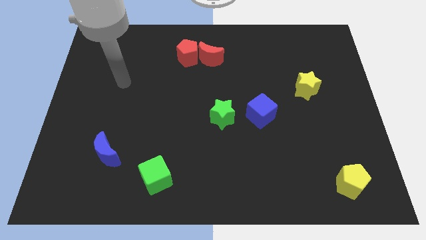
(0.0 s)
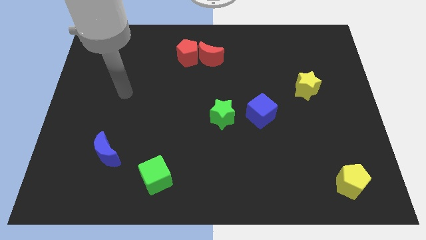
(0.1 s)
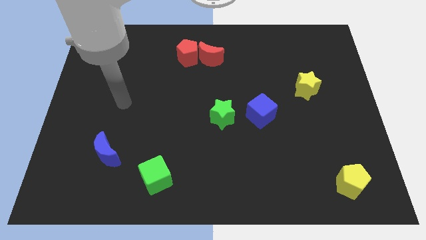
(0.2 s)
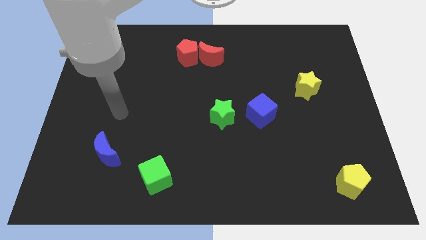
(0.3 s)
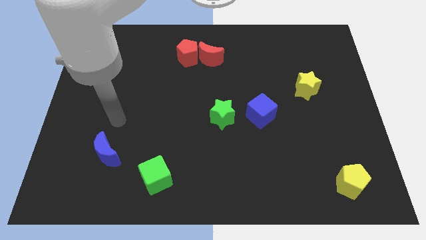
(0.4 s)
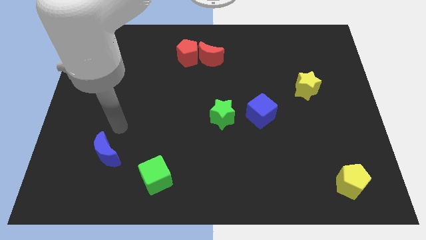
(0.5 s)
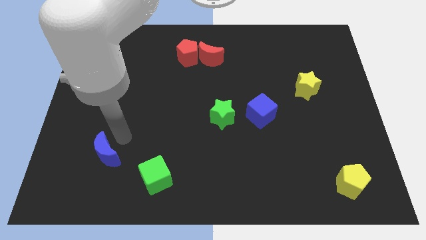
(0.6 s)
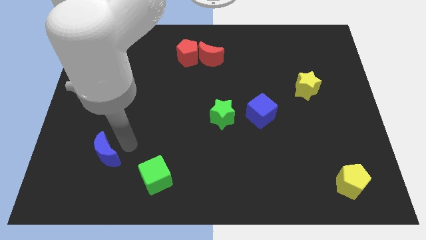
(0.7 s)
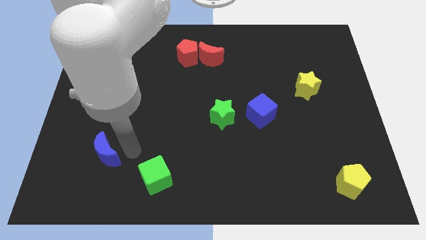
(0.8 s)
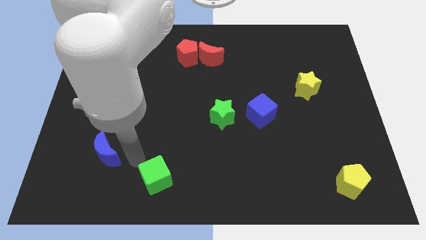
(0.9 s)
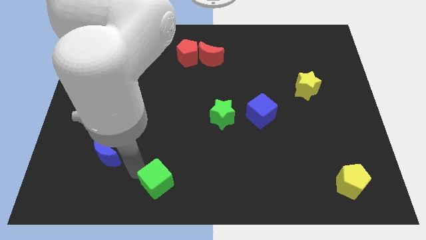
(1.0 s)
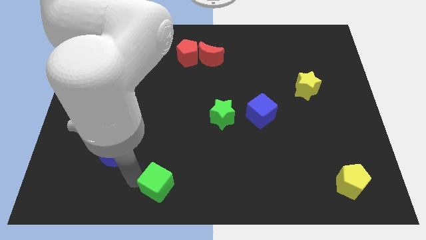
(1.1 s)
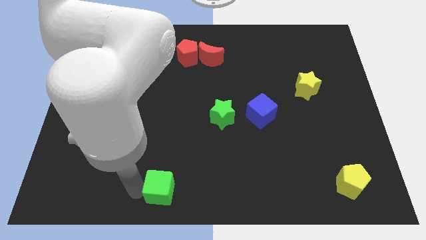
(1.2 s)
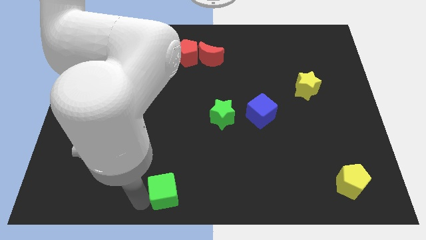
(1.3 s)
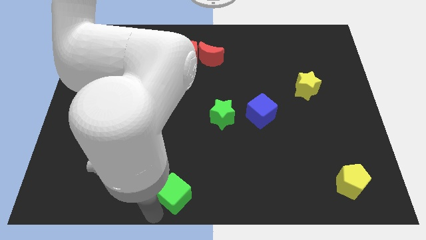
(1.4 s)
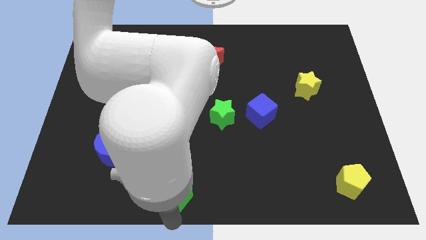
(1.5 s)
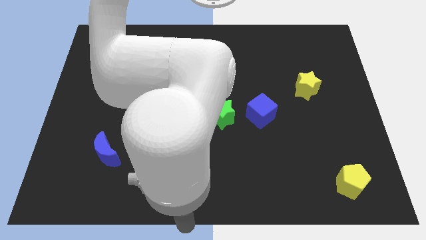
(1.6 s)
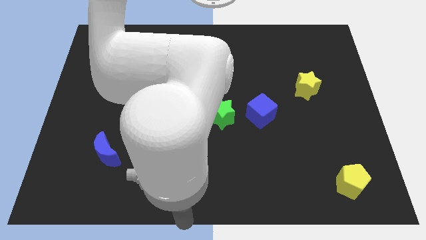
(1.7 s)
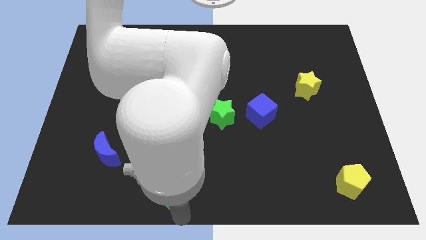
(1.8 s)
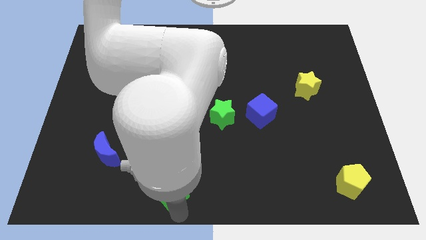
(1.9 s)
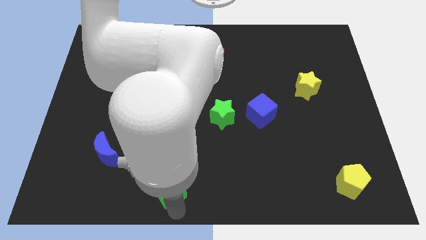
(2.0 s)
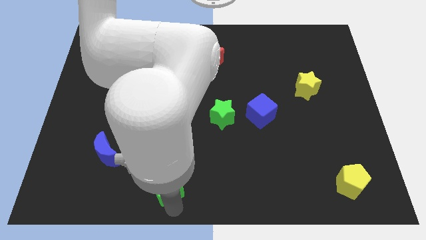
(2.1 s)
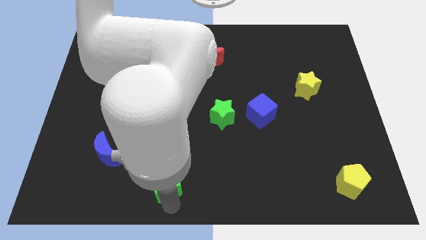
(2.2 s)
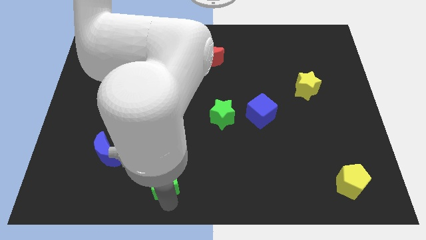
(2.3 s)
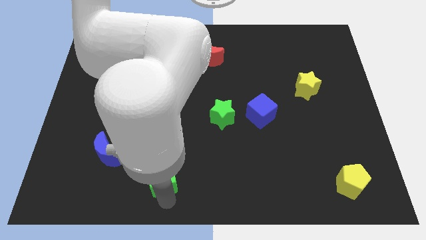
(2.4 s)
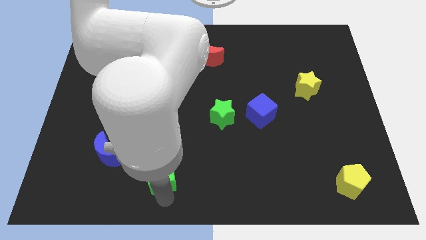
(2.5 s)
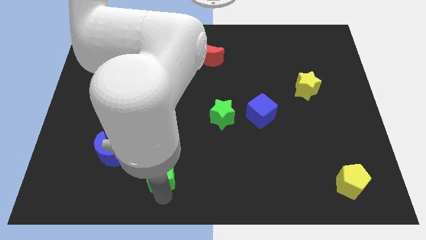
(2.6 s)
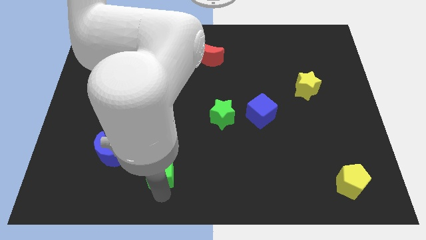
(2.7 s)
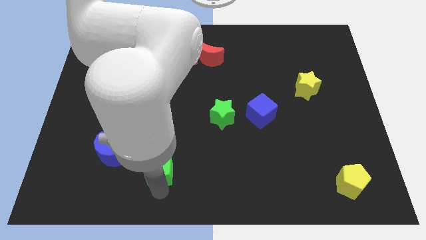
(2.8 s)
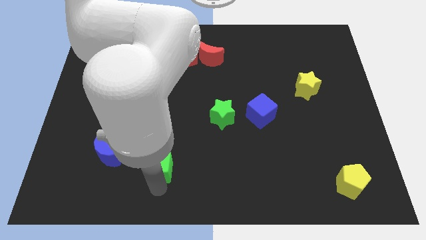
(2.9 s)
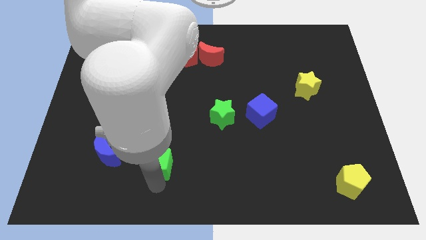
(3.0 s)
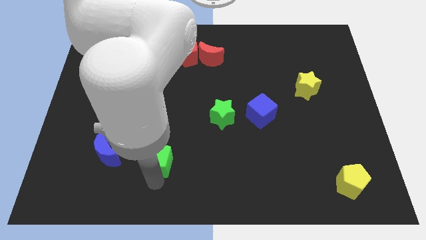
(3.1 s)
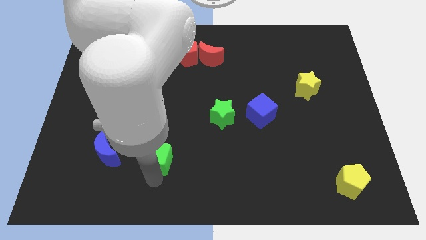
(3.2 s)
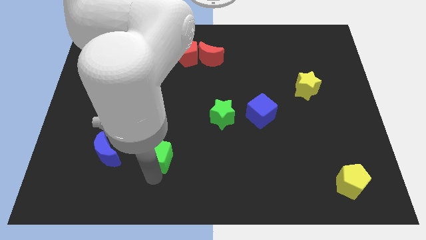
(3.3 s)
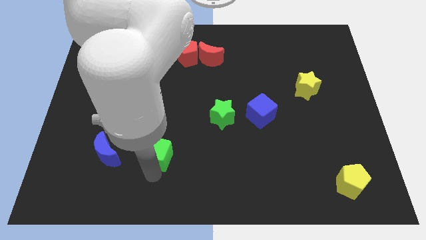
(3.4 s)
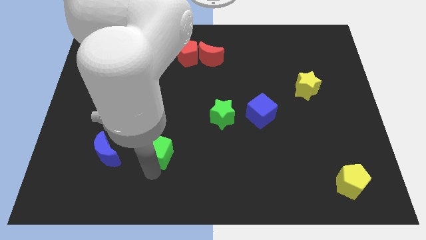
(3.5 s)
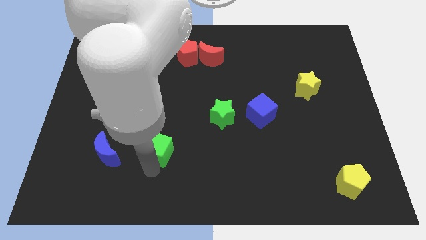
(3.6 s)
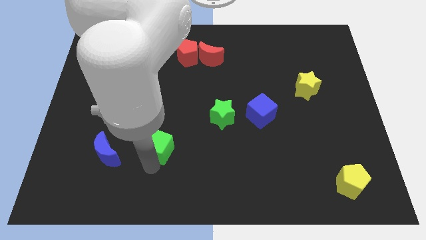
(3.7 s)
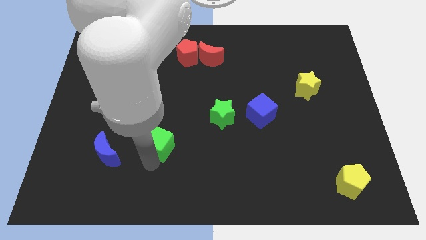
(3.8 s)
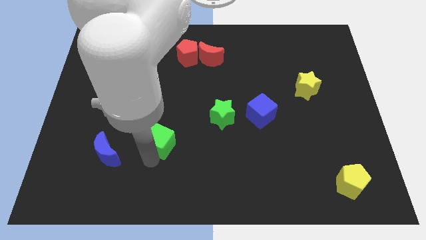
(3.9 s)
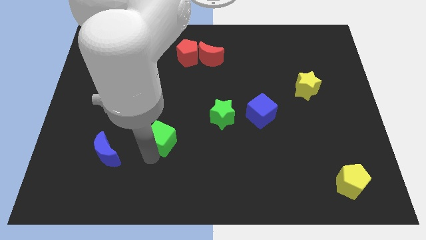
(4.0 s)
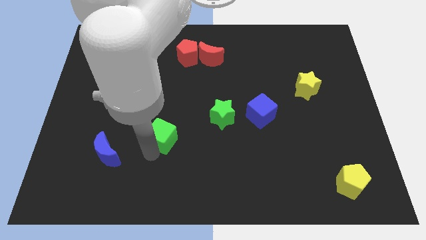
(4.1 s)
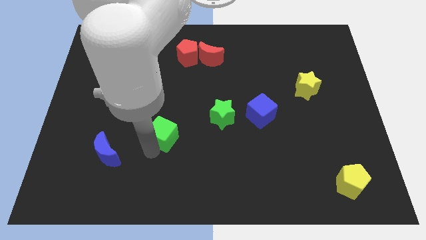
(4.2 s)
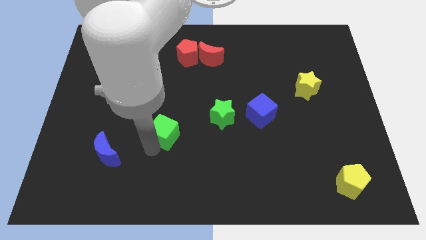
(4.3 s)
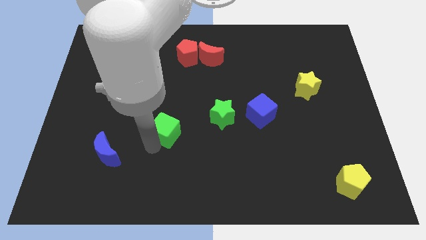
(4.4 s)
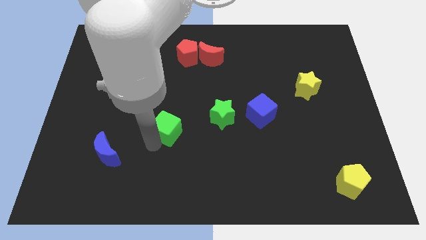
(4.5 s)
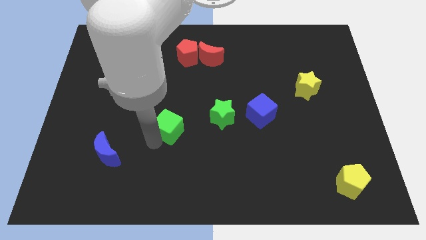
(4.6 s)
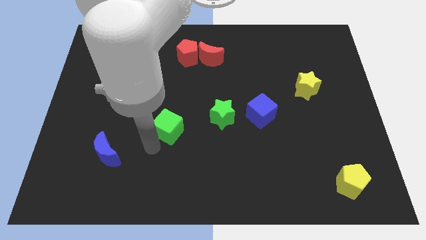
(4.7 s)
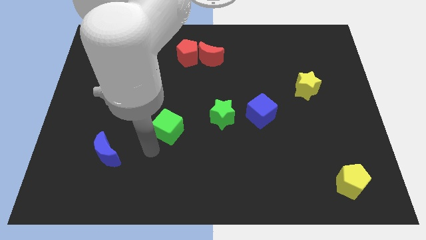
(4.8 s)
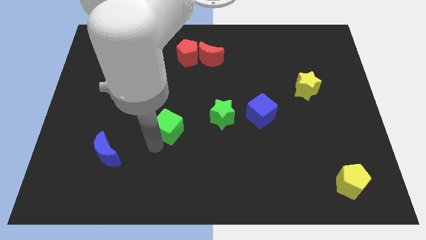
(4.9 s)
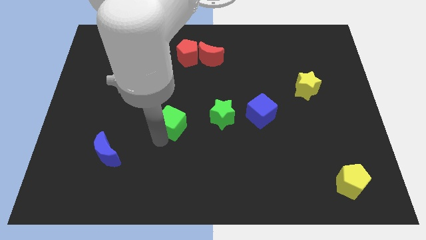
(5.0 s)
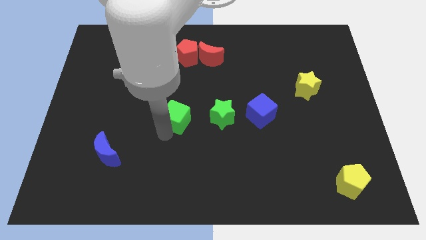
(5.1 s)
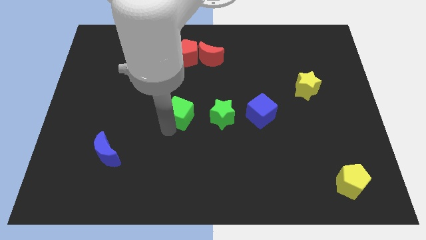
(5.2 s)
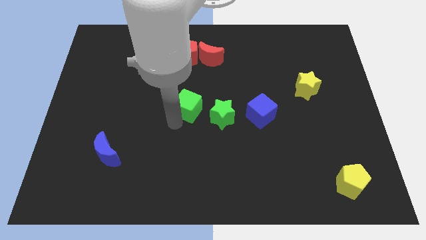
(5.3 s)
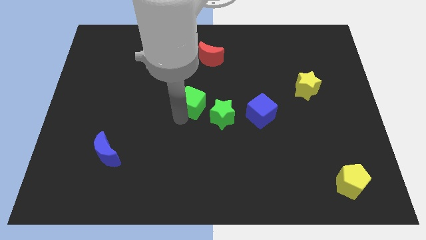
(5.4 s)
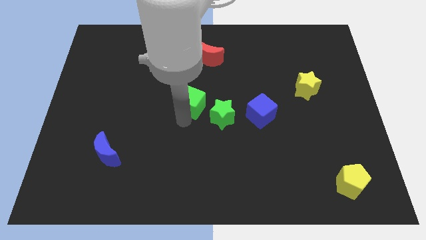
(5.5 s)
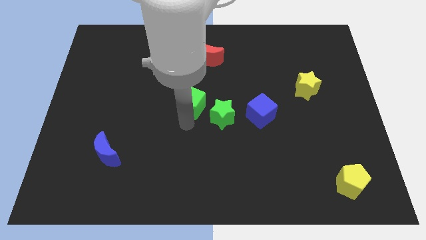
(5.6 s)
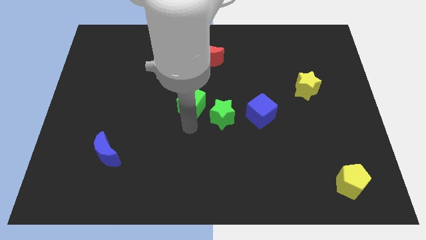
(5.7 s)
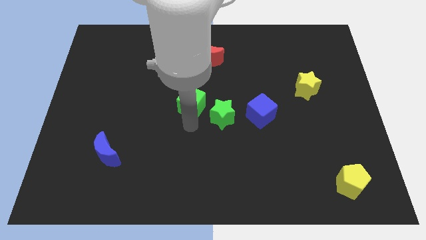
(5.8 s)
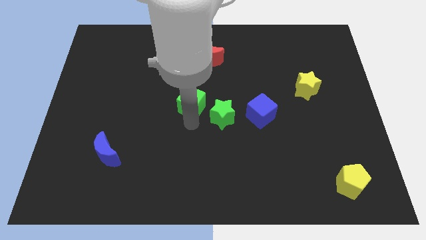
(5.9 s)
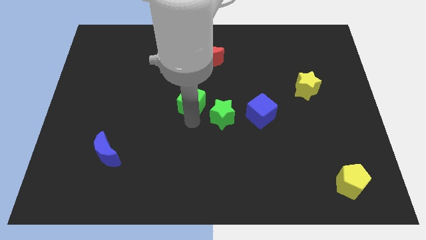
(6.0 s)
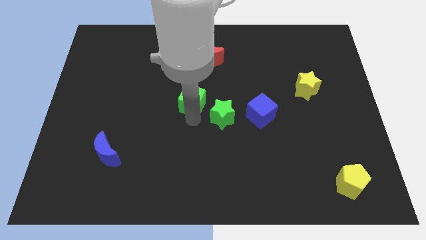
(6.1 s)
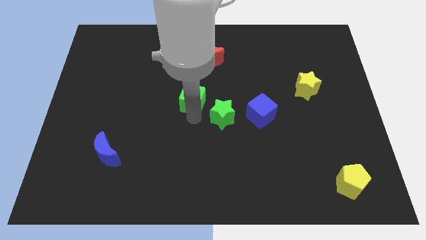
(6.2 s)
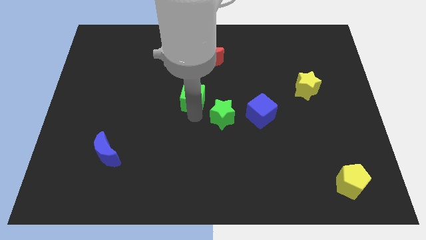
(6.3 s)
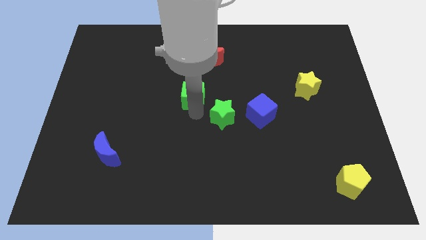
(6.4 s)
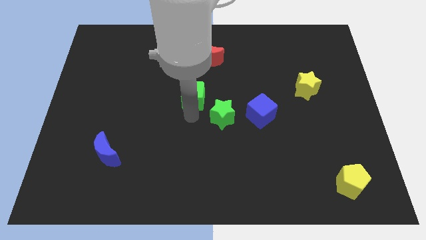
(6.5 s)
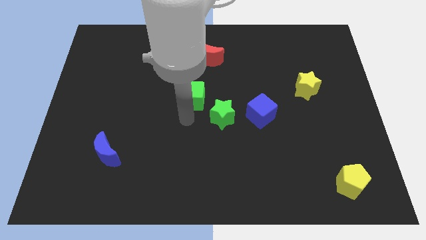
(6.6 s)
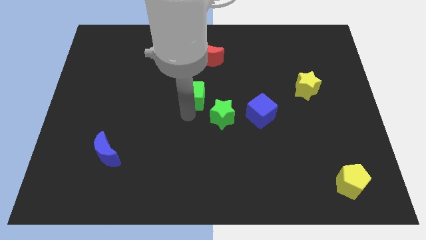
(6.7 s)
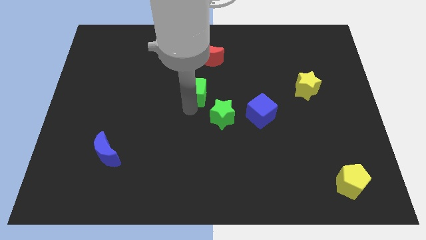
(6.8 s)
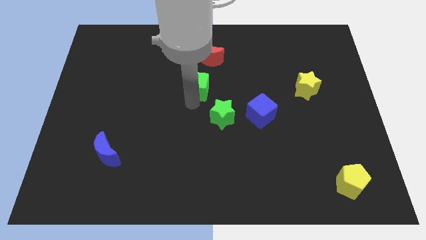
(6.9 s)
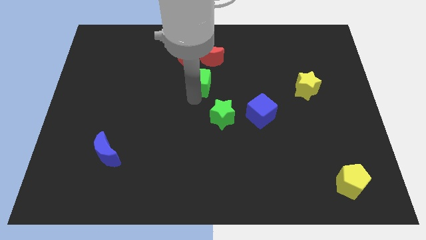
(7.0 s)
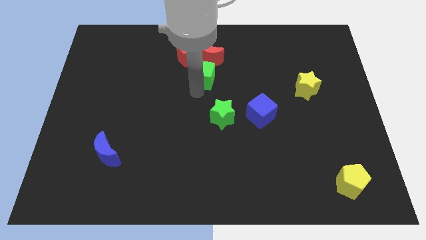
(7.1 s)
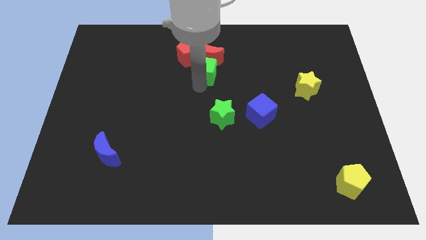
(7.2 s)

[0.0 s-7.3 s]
move the green cube to the red moon
